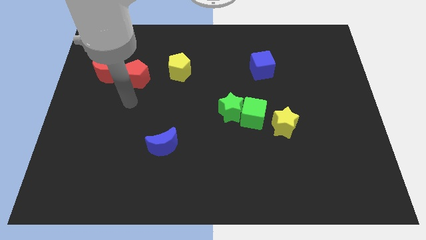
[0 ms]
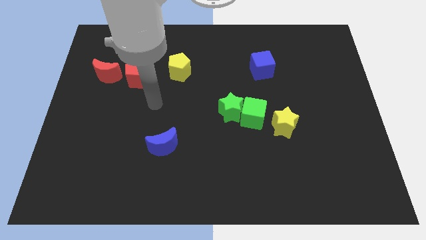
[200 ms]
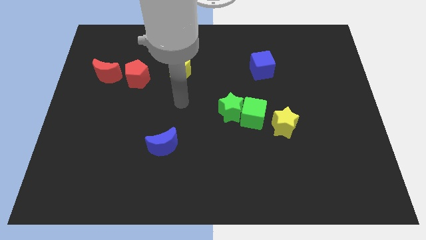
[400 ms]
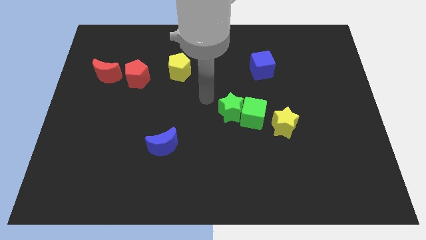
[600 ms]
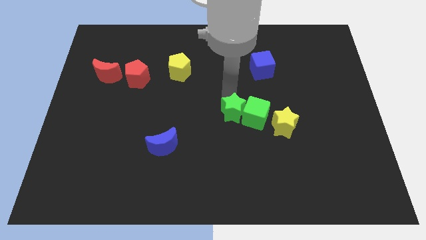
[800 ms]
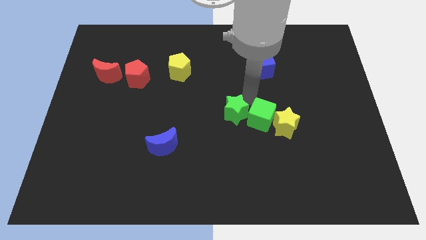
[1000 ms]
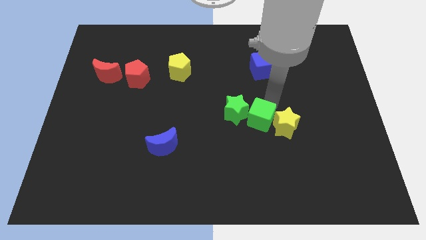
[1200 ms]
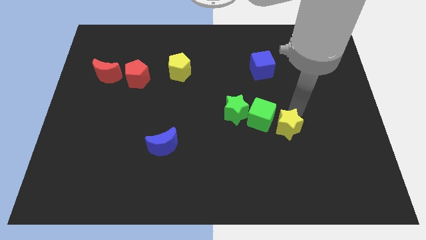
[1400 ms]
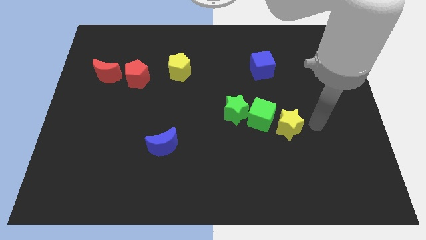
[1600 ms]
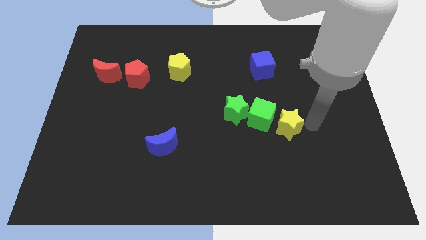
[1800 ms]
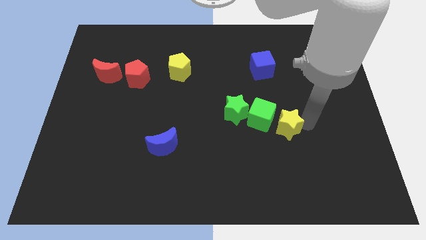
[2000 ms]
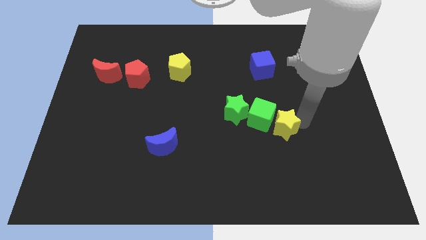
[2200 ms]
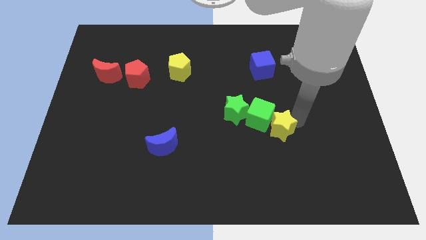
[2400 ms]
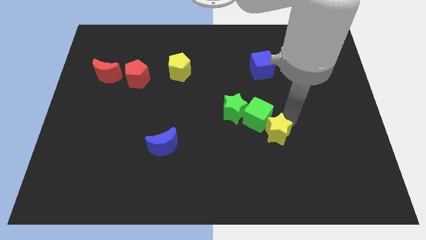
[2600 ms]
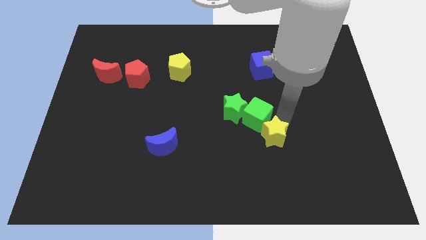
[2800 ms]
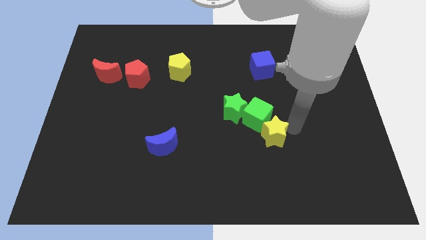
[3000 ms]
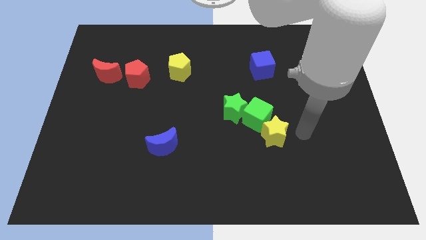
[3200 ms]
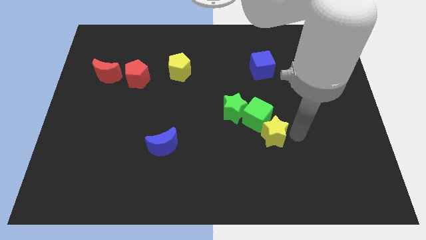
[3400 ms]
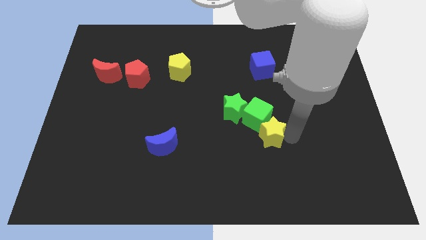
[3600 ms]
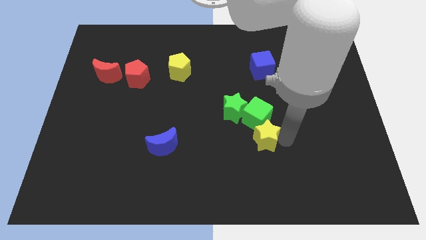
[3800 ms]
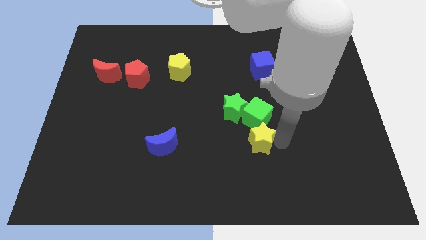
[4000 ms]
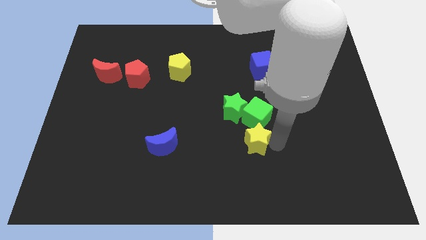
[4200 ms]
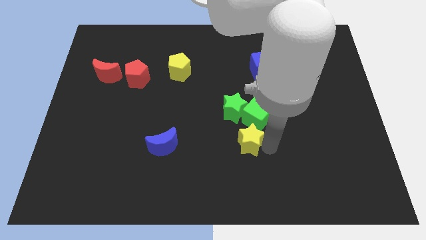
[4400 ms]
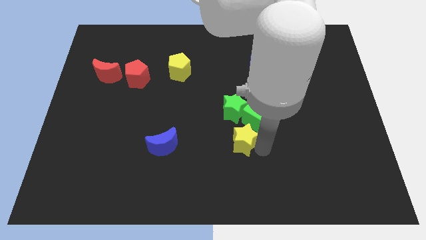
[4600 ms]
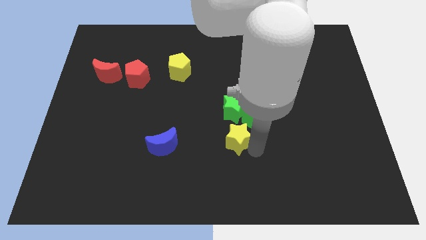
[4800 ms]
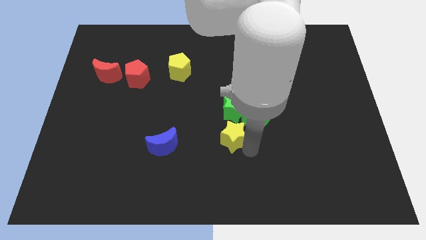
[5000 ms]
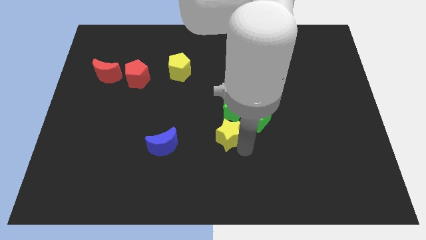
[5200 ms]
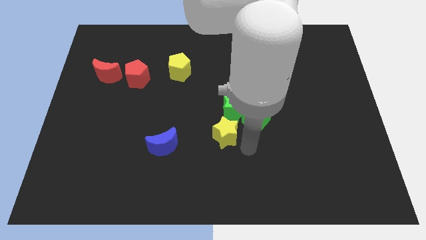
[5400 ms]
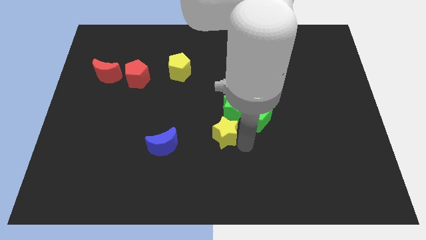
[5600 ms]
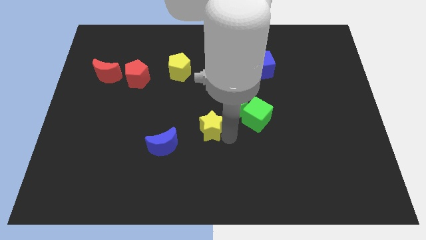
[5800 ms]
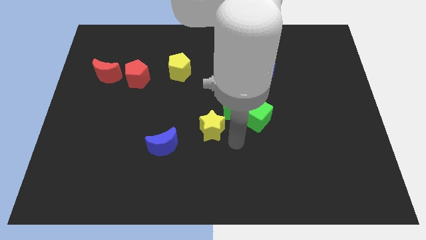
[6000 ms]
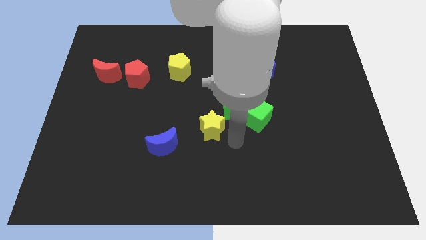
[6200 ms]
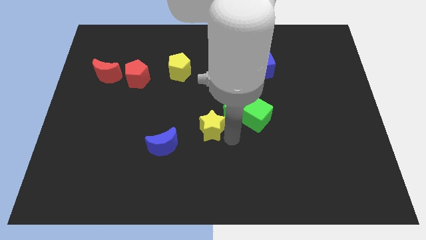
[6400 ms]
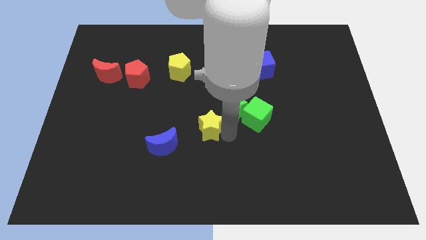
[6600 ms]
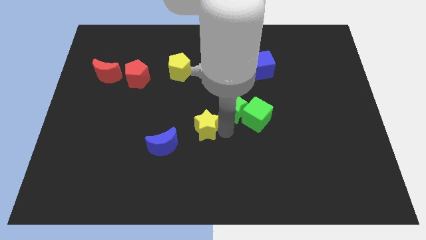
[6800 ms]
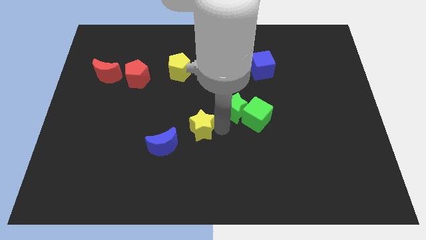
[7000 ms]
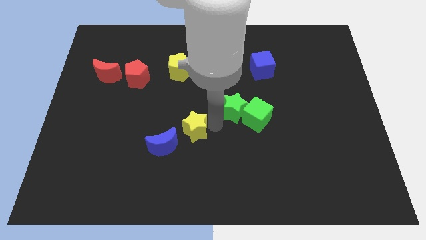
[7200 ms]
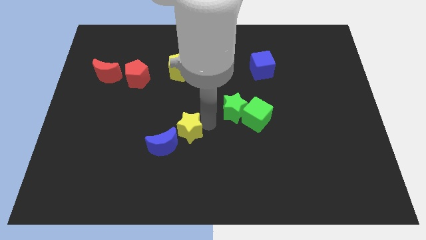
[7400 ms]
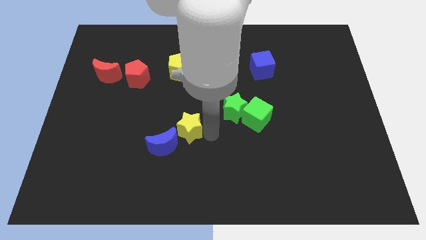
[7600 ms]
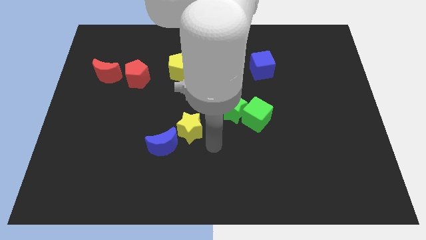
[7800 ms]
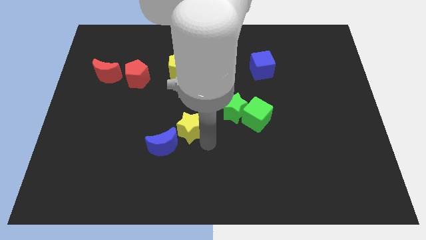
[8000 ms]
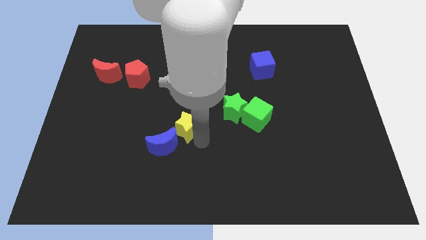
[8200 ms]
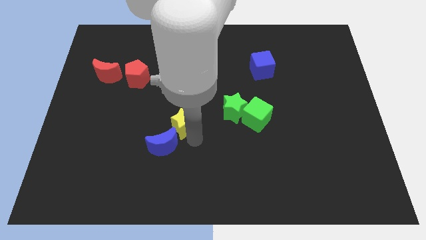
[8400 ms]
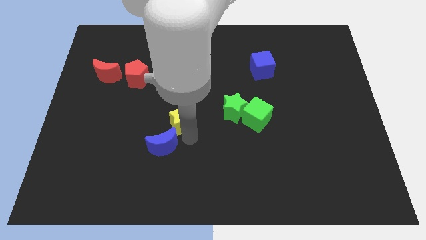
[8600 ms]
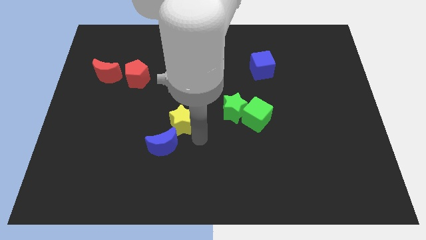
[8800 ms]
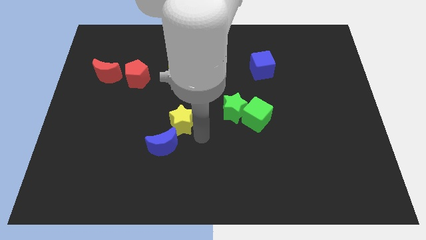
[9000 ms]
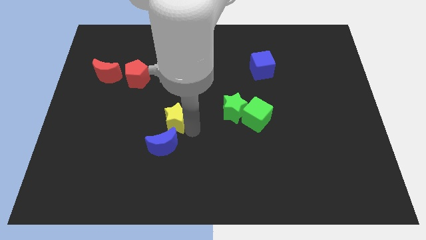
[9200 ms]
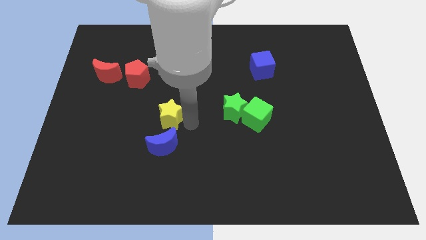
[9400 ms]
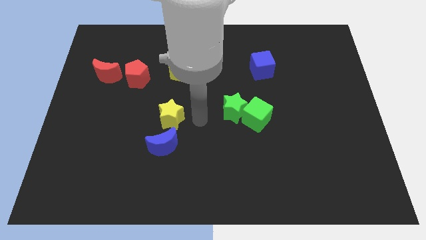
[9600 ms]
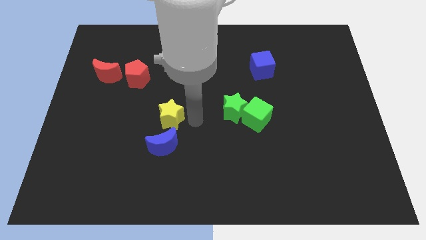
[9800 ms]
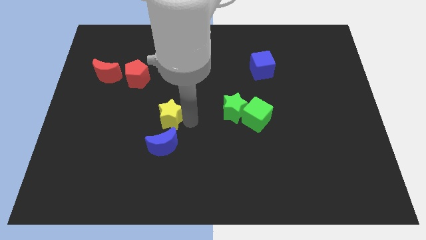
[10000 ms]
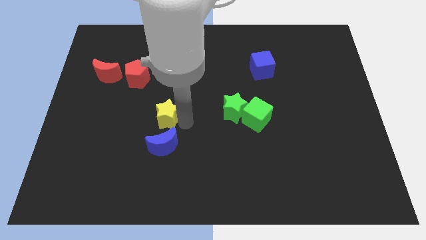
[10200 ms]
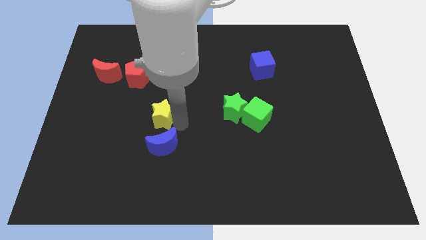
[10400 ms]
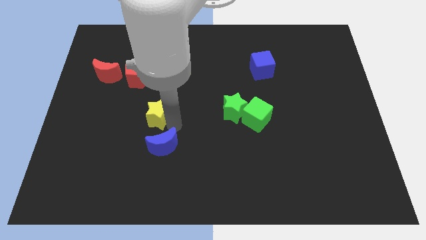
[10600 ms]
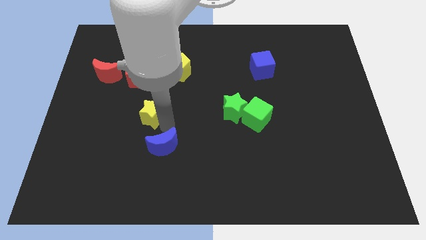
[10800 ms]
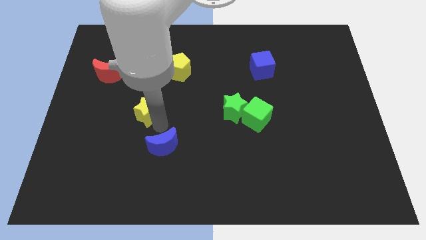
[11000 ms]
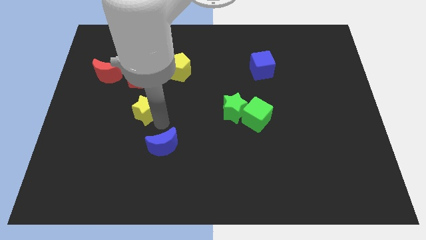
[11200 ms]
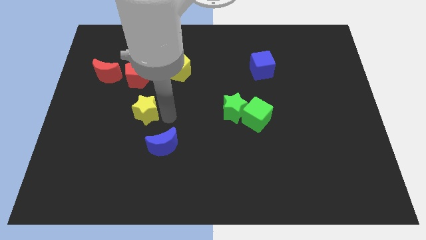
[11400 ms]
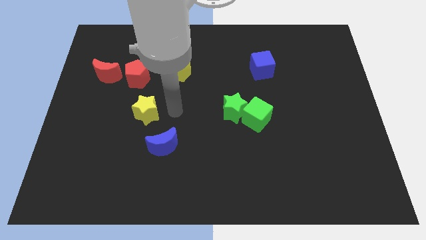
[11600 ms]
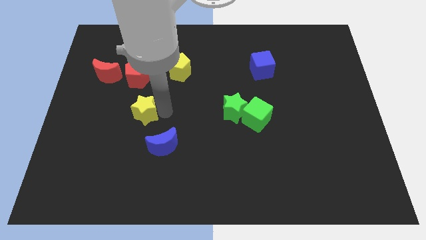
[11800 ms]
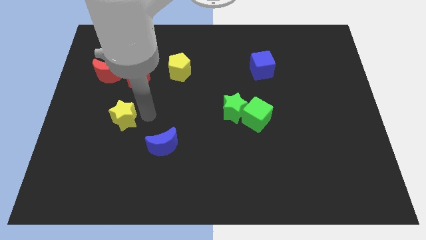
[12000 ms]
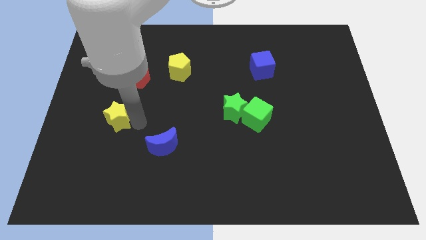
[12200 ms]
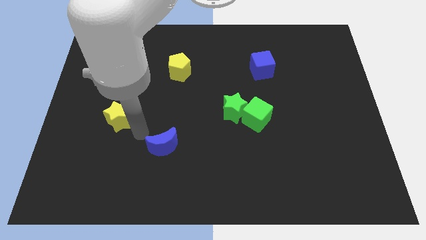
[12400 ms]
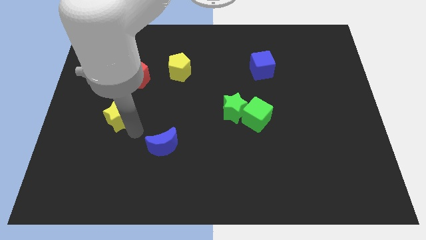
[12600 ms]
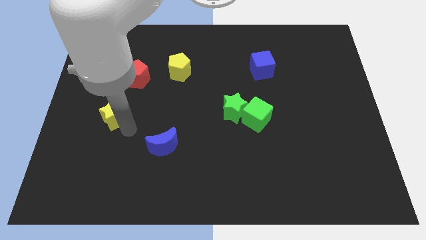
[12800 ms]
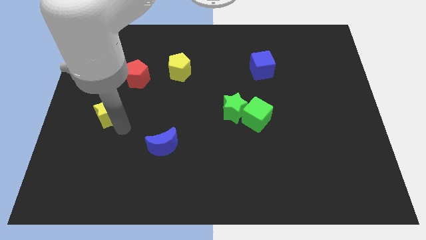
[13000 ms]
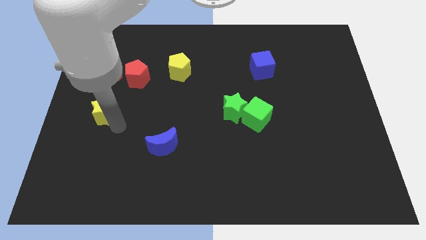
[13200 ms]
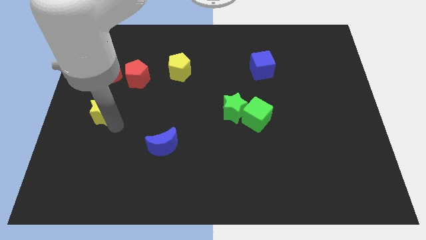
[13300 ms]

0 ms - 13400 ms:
slide the yellow star to the center left

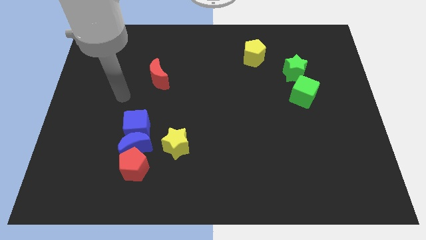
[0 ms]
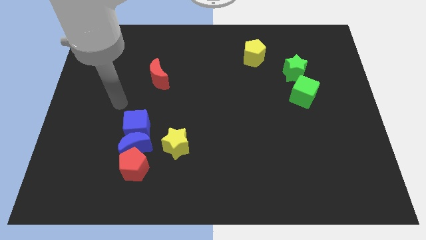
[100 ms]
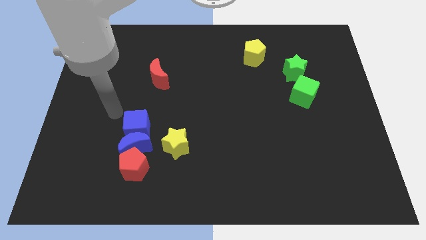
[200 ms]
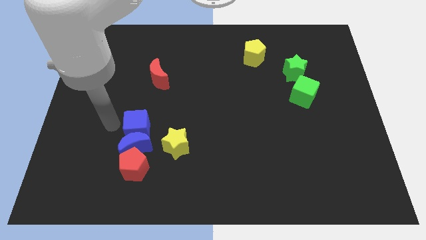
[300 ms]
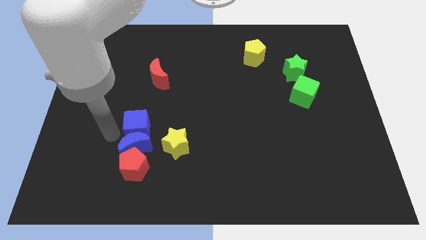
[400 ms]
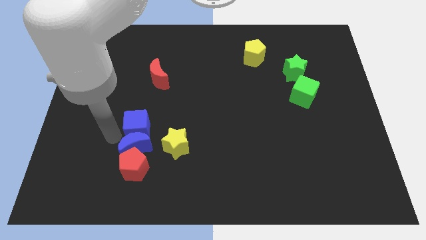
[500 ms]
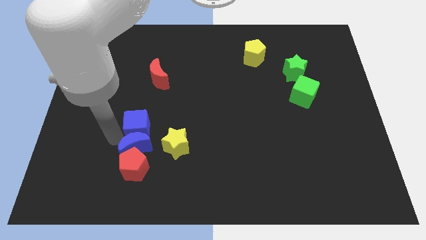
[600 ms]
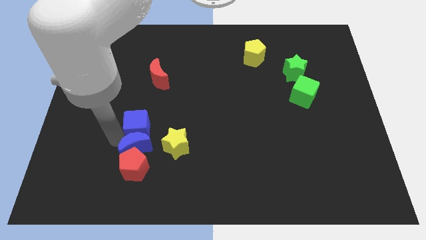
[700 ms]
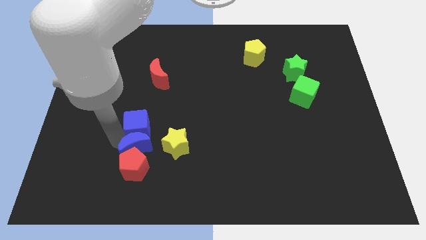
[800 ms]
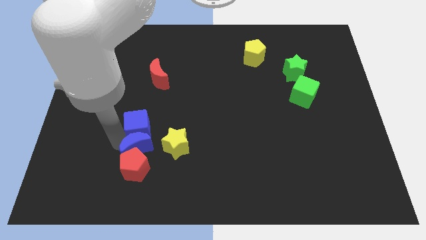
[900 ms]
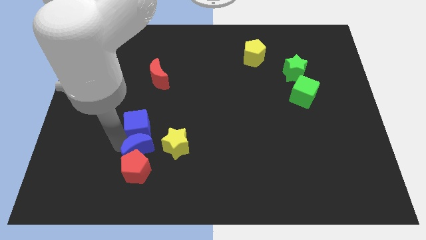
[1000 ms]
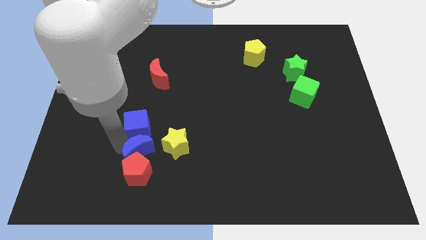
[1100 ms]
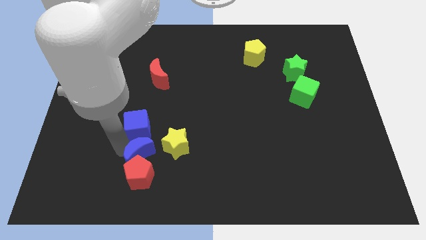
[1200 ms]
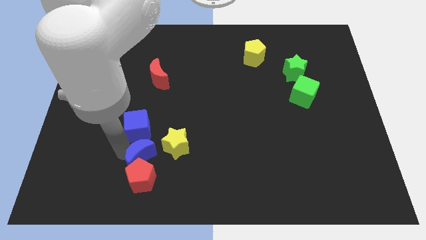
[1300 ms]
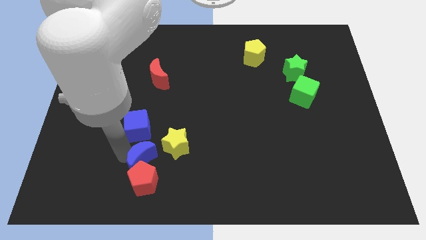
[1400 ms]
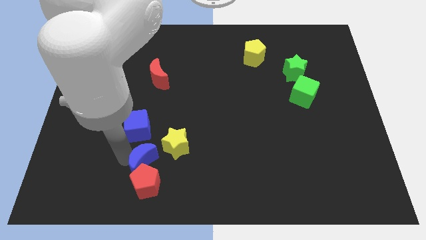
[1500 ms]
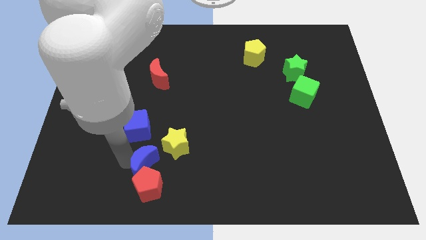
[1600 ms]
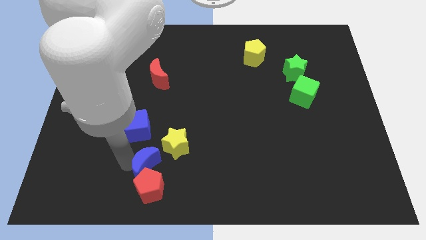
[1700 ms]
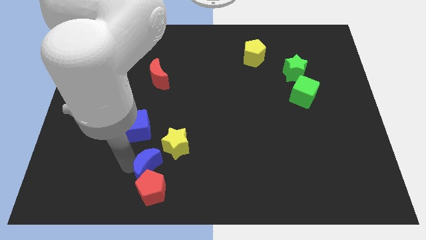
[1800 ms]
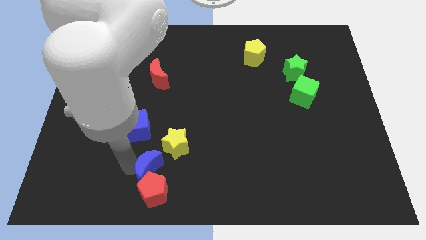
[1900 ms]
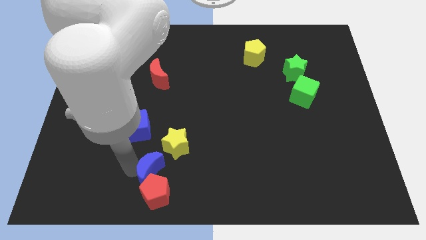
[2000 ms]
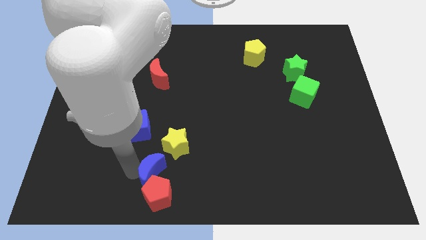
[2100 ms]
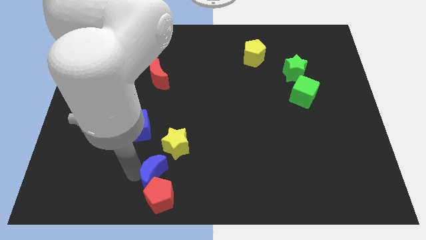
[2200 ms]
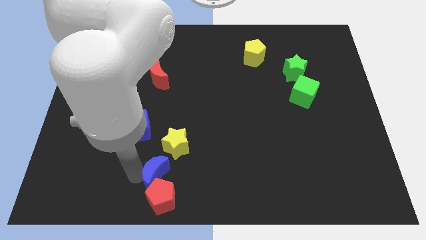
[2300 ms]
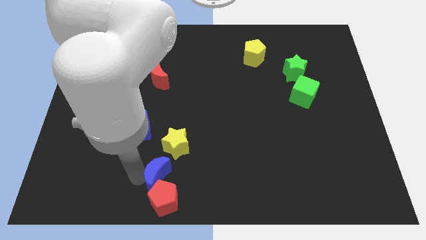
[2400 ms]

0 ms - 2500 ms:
move the blue moon to the bottom
